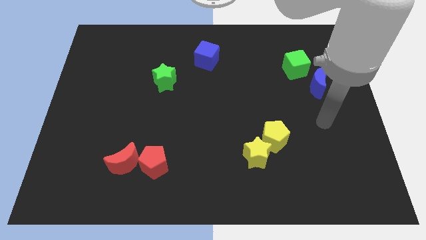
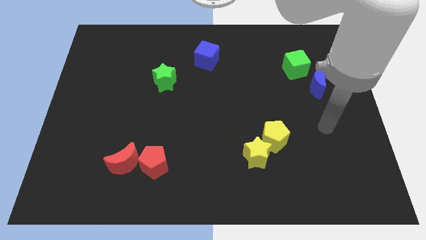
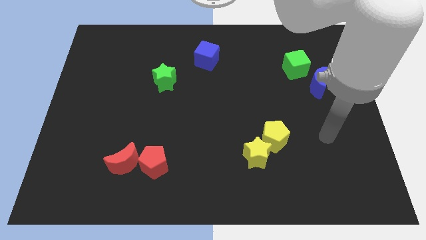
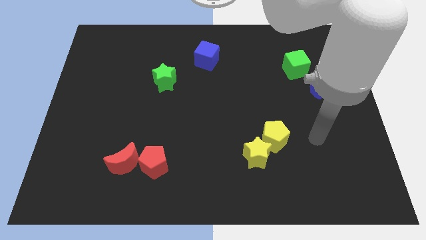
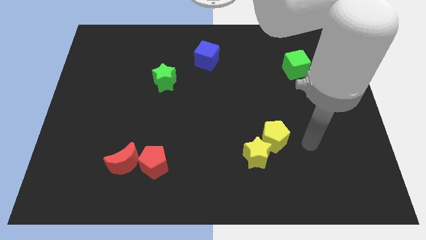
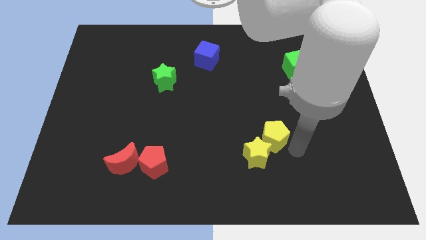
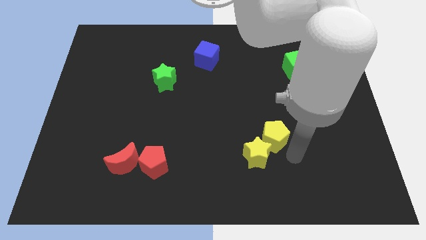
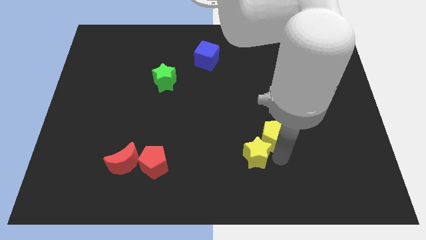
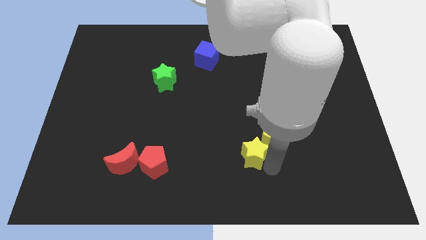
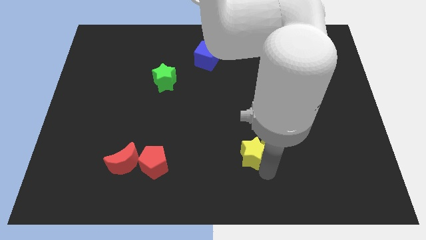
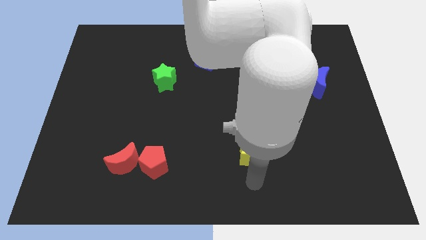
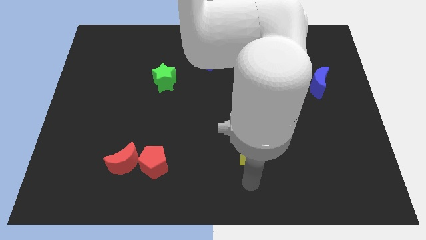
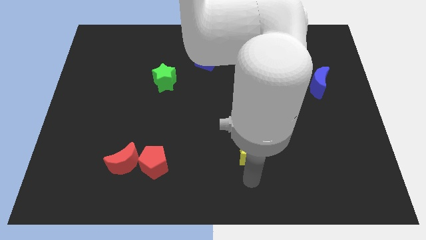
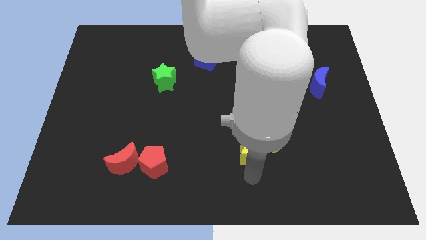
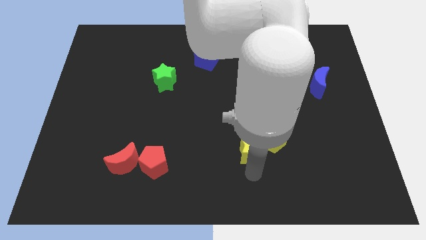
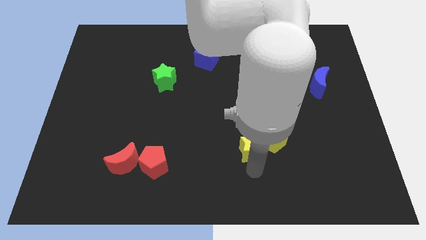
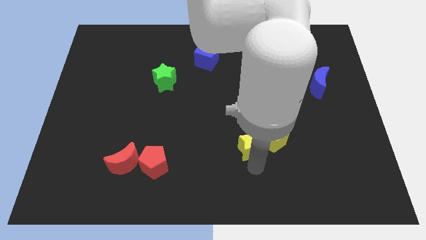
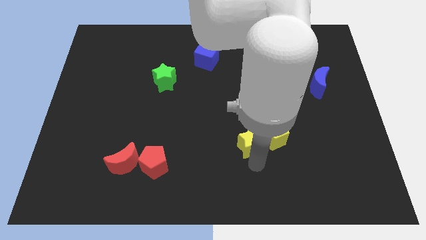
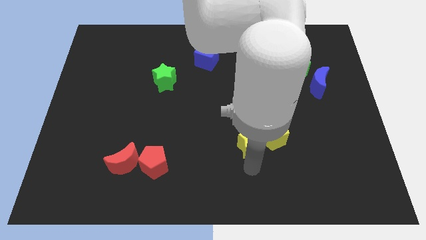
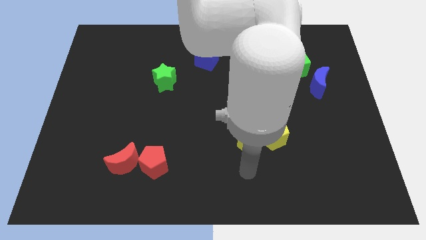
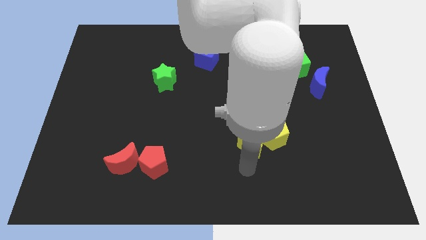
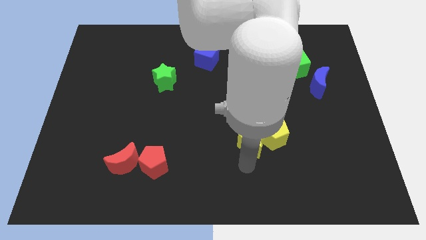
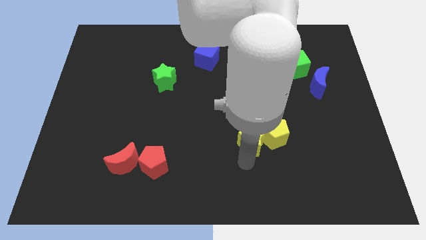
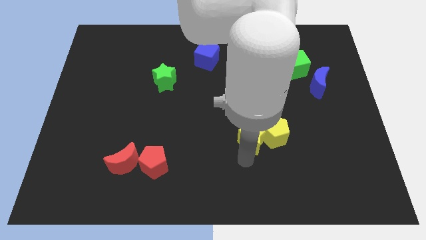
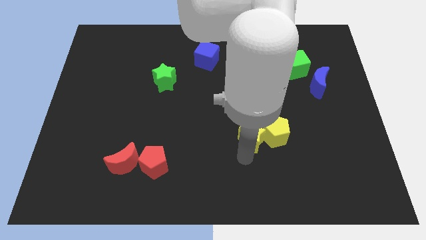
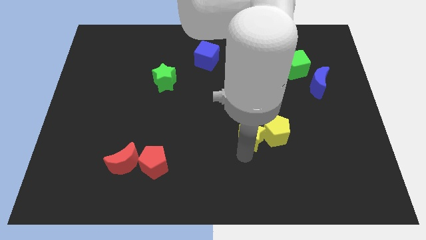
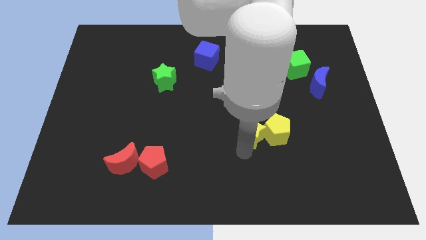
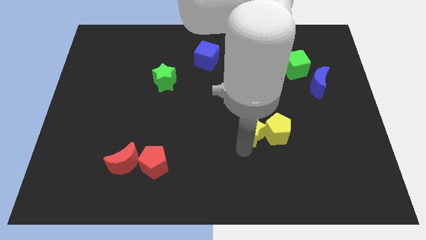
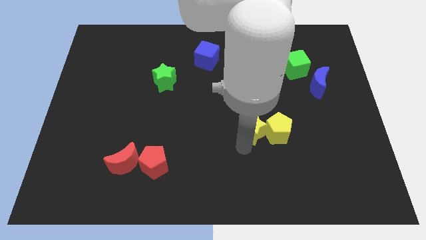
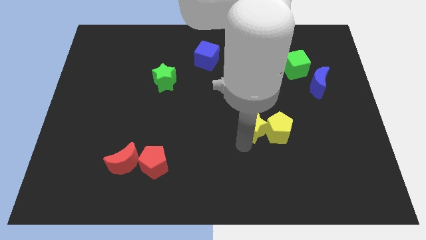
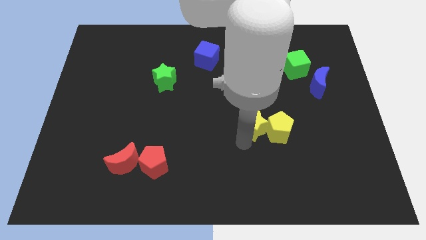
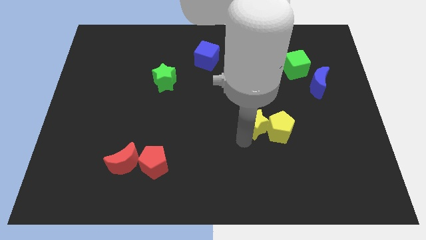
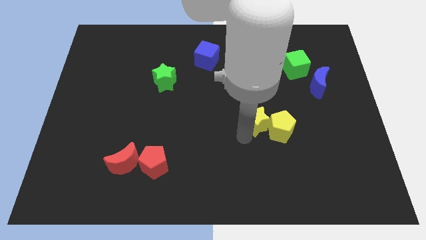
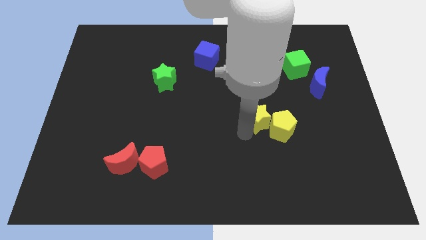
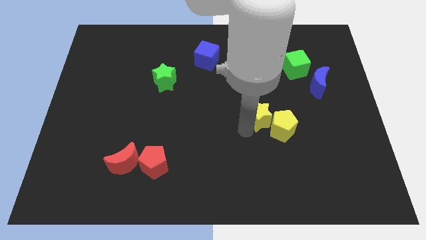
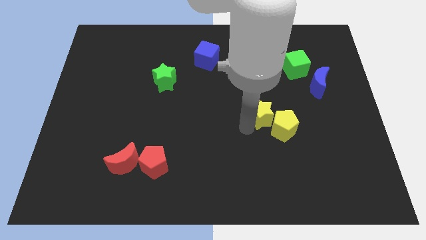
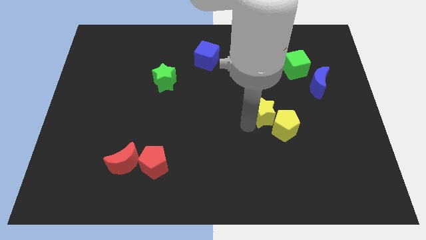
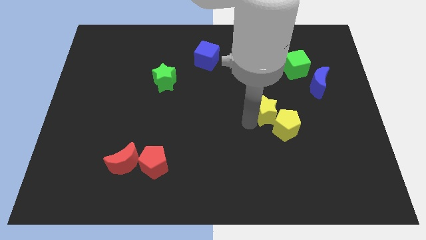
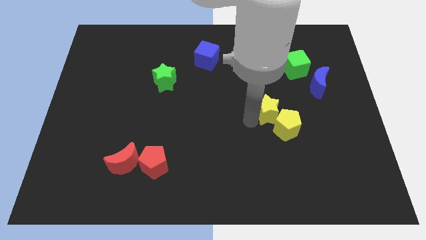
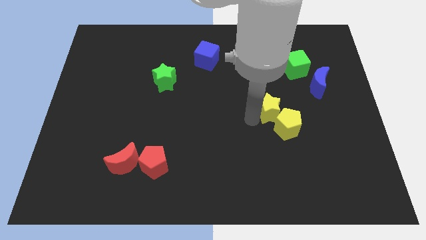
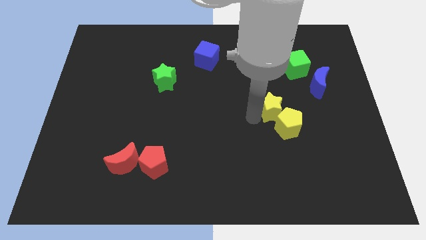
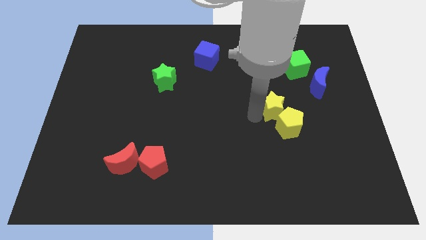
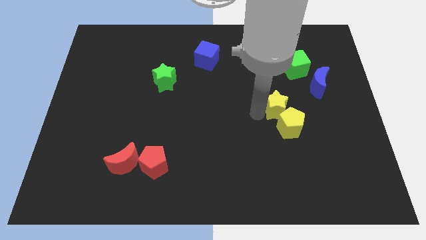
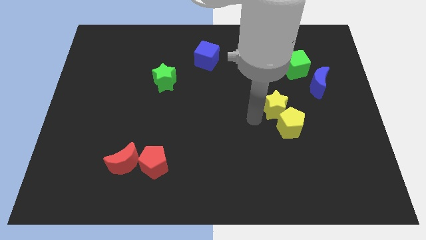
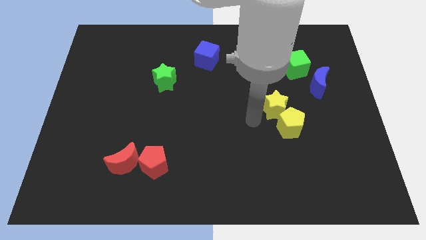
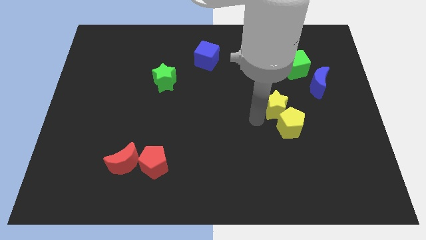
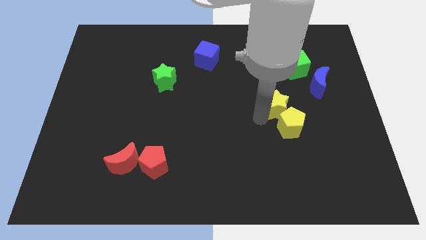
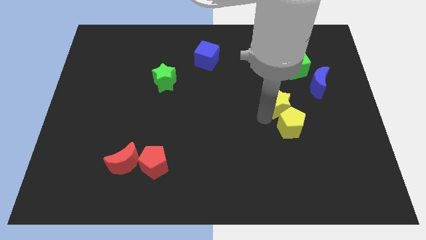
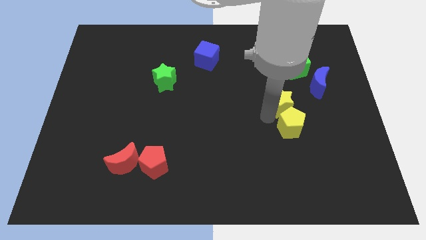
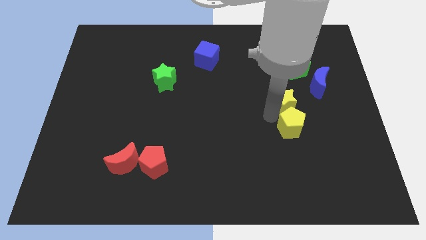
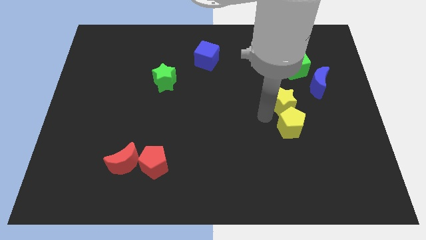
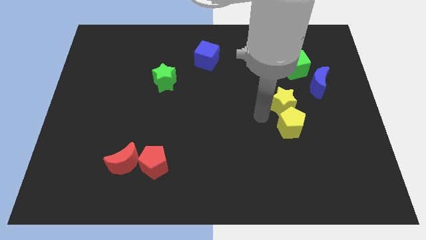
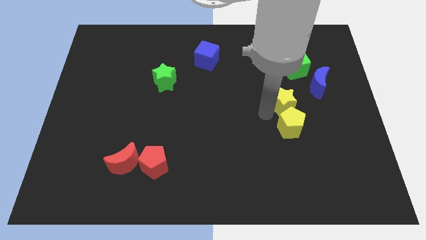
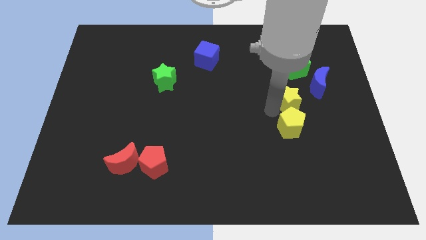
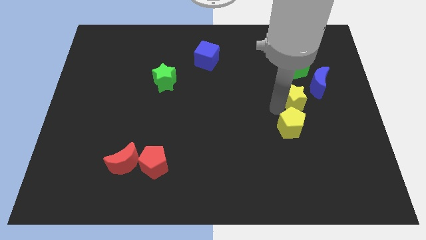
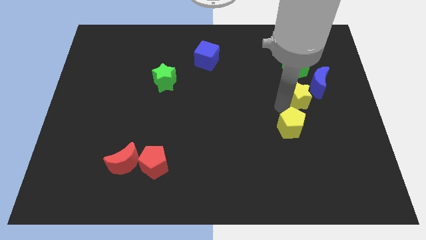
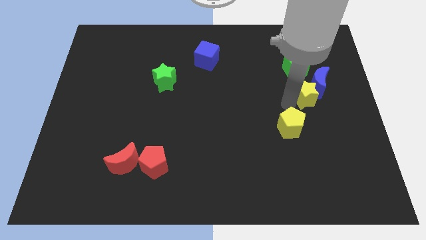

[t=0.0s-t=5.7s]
push the yellow star towards the blue moon

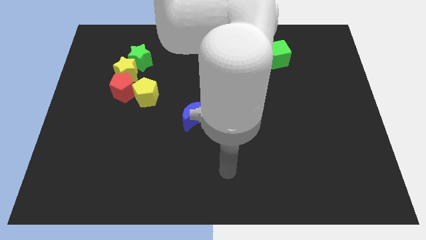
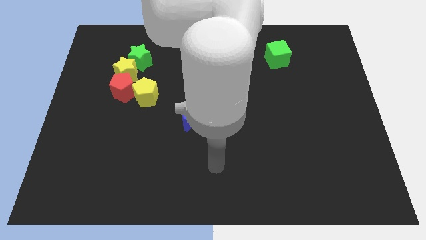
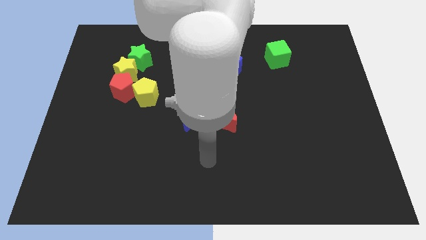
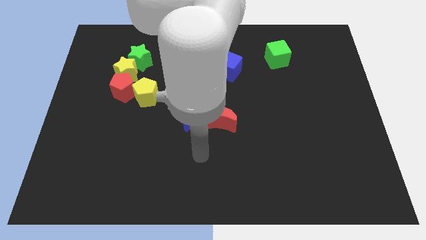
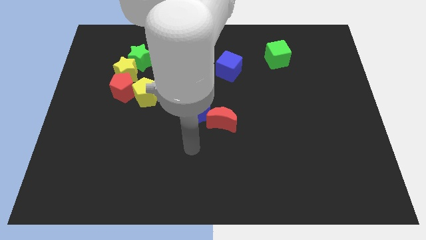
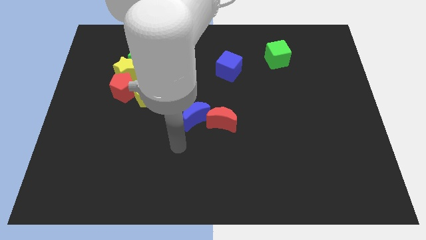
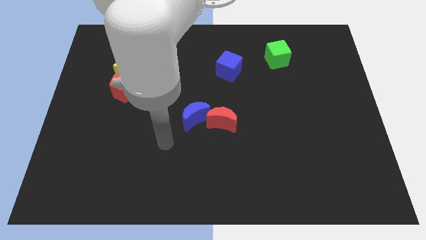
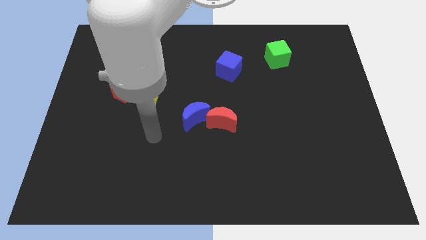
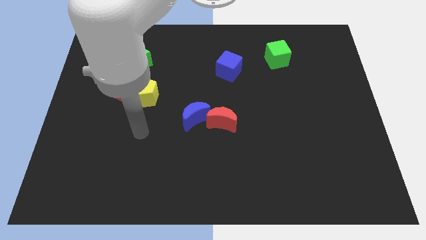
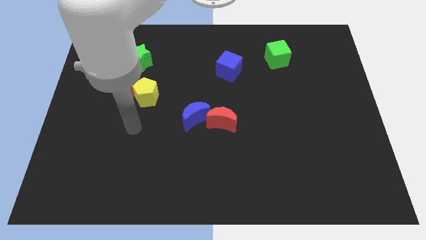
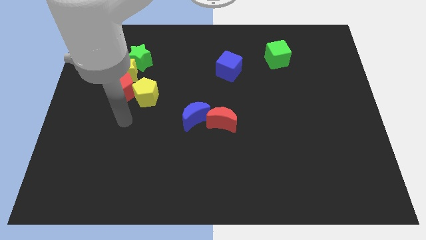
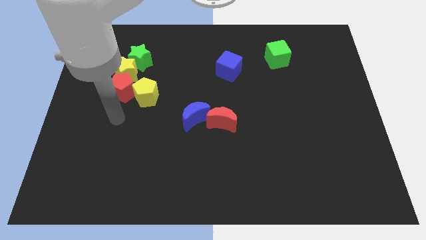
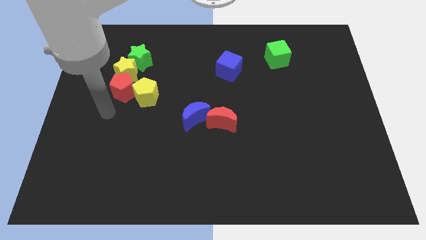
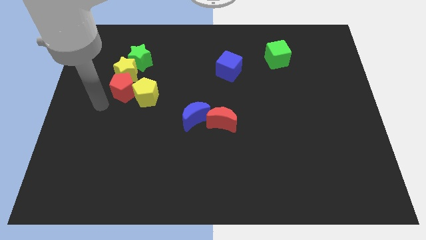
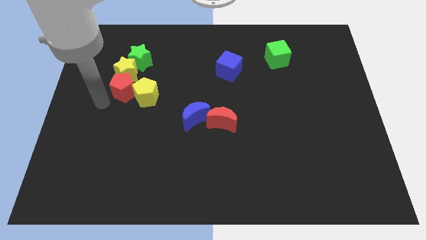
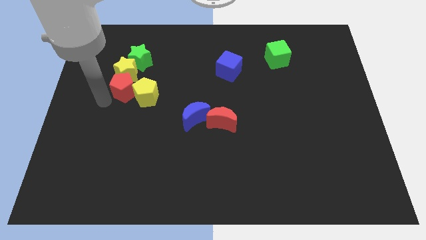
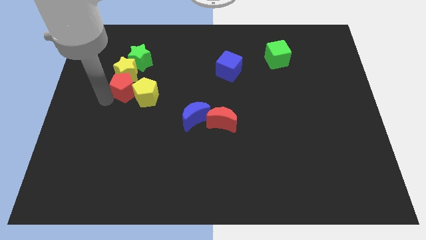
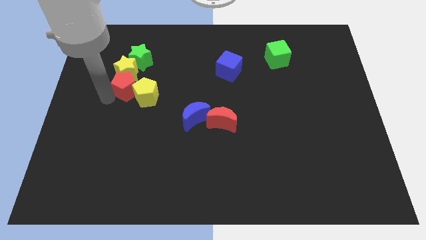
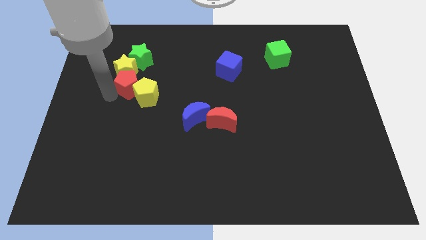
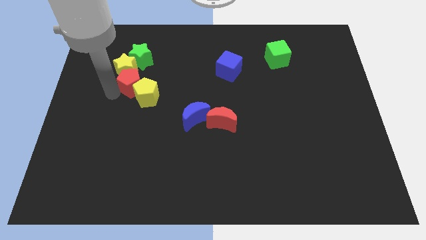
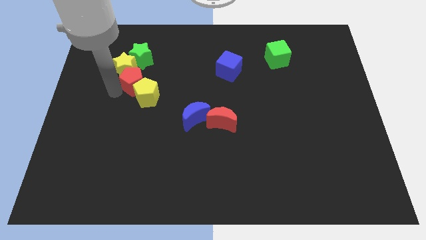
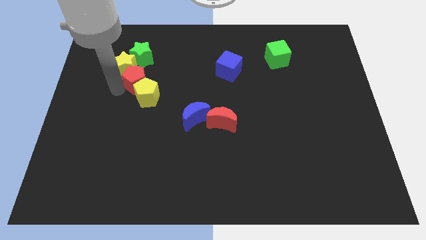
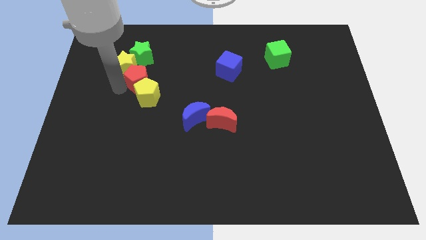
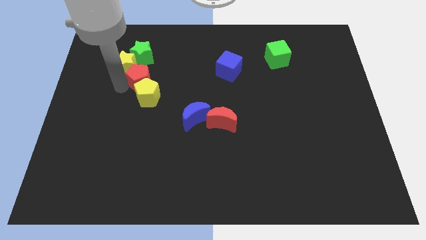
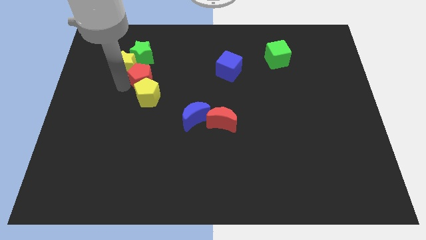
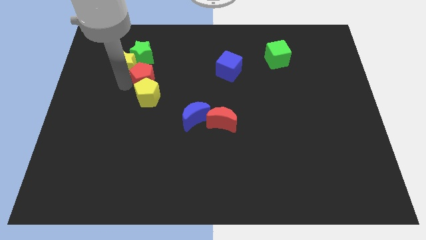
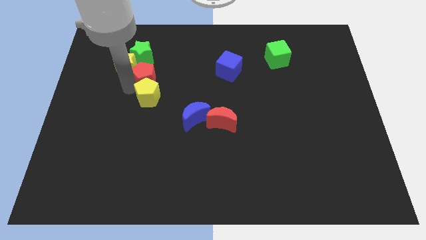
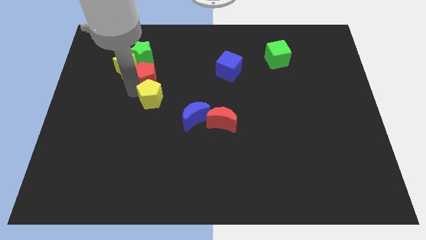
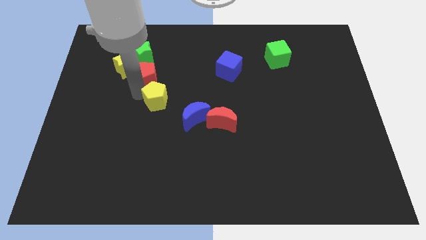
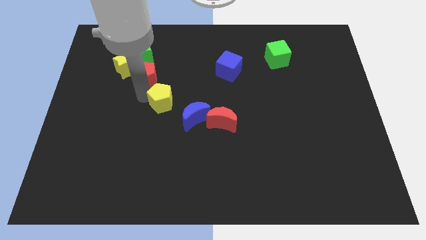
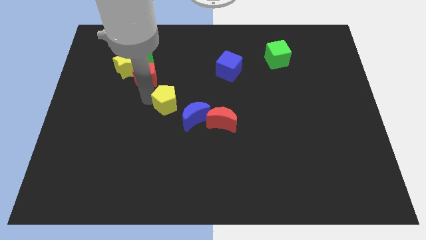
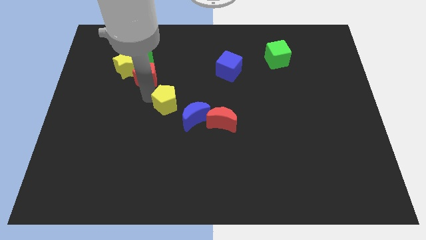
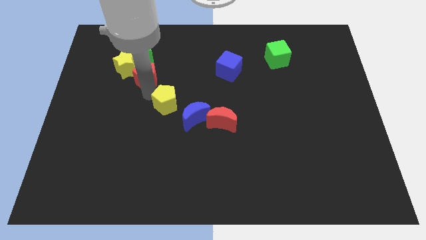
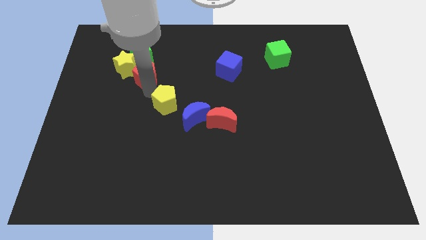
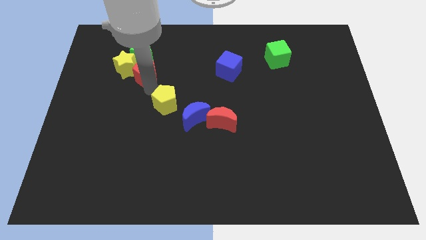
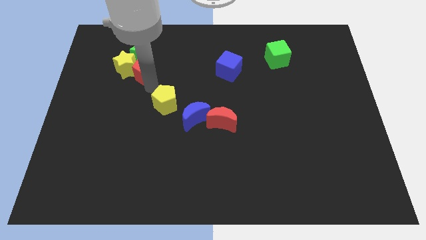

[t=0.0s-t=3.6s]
put the red pentagon to the green star
